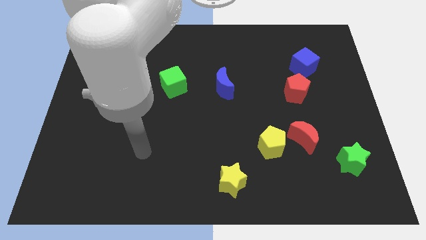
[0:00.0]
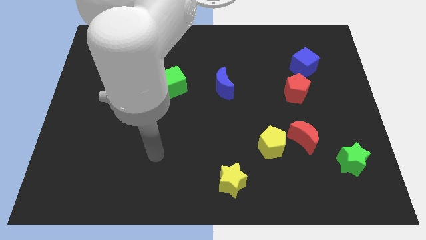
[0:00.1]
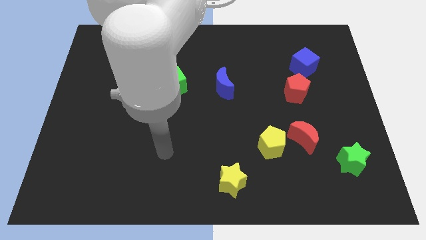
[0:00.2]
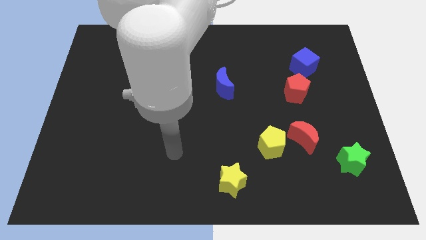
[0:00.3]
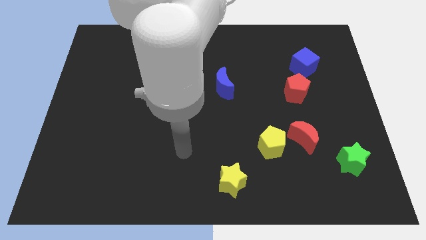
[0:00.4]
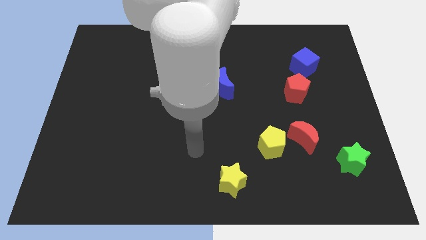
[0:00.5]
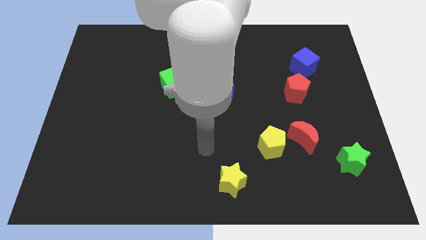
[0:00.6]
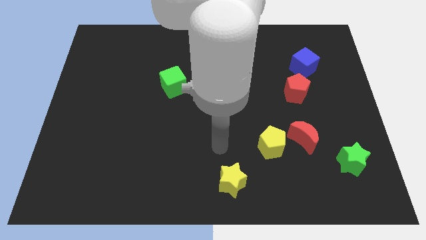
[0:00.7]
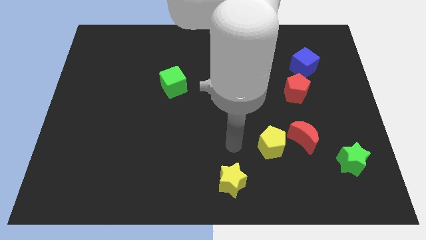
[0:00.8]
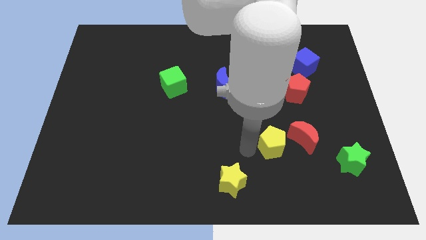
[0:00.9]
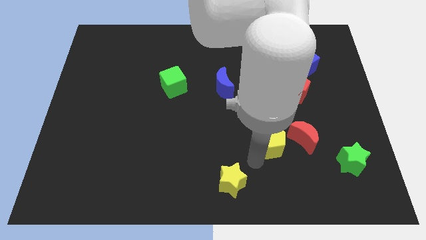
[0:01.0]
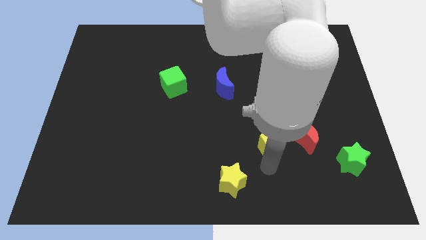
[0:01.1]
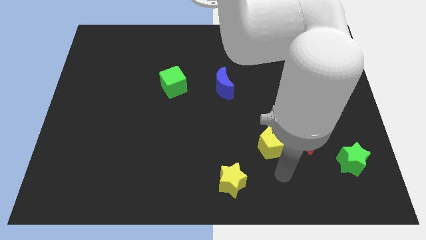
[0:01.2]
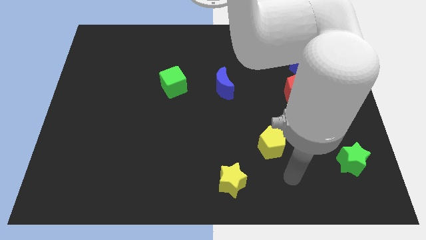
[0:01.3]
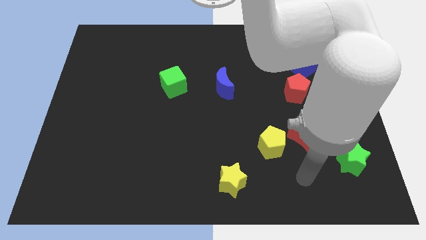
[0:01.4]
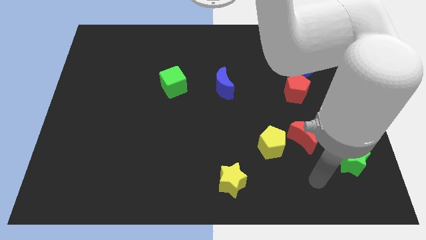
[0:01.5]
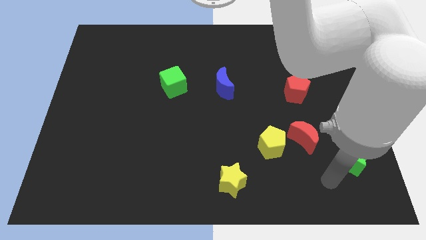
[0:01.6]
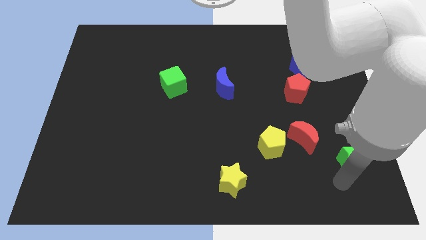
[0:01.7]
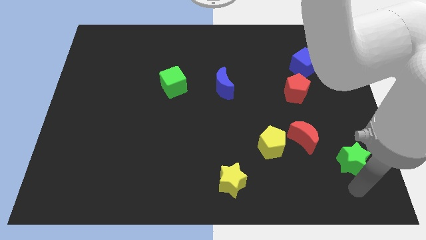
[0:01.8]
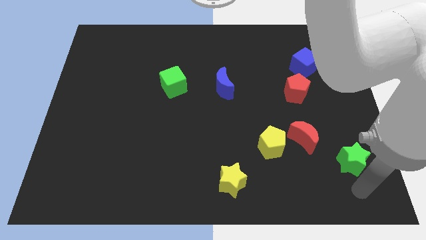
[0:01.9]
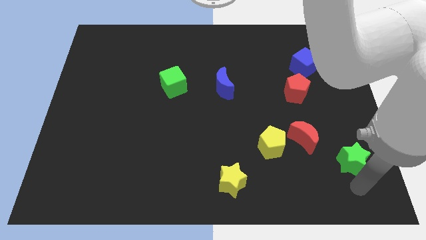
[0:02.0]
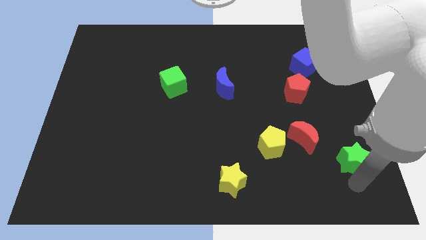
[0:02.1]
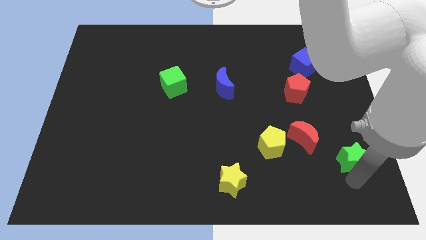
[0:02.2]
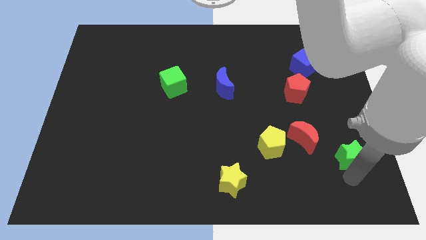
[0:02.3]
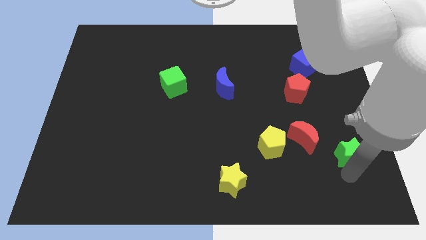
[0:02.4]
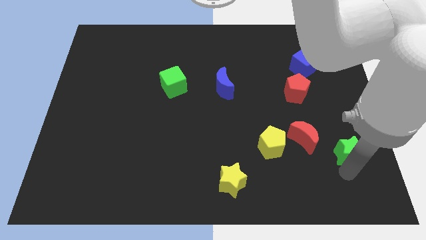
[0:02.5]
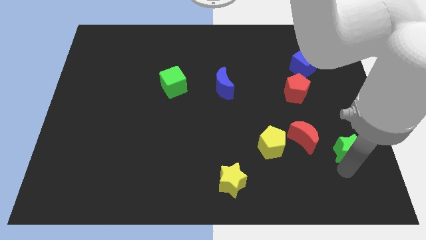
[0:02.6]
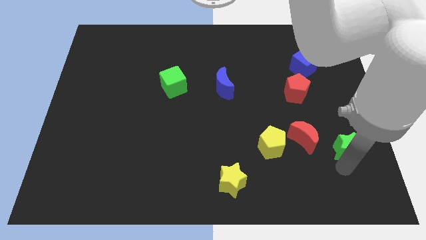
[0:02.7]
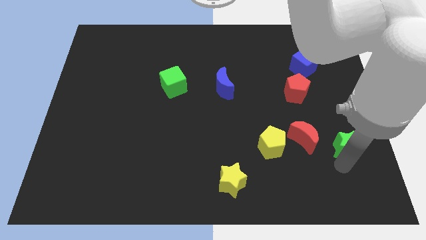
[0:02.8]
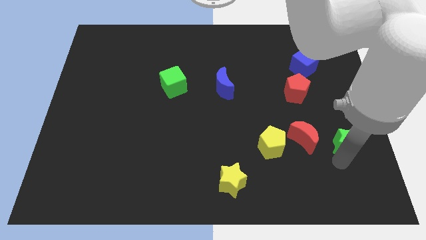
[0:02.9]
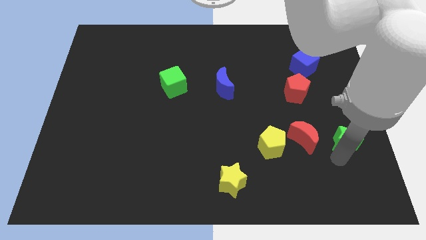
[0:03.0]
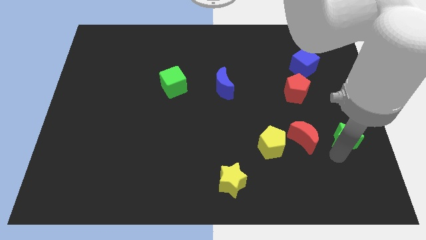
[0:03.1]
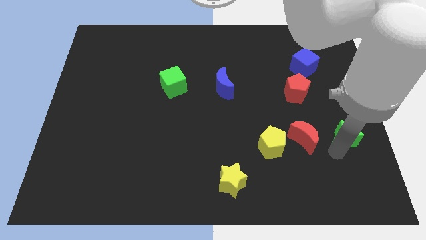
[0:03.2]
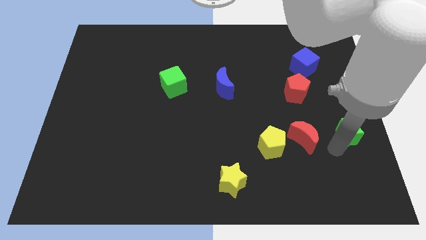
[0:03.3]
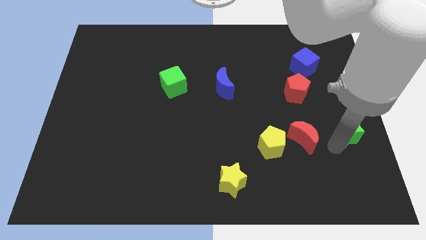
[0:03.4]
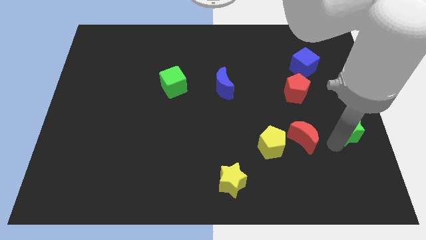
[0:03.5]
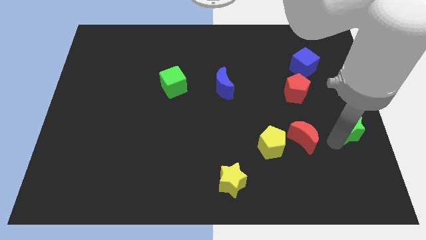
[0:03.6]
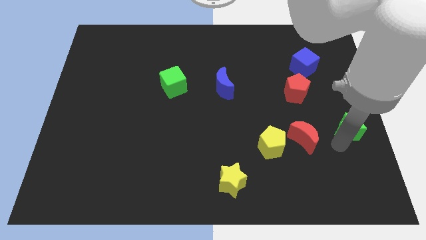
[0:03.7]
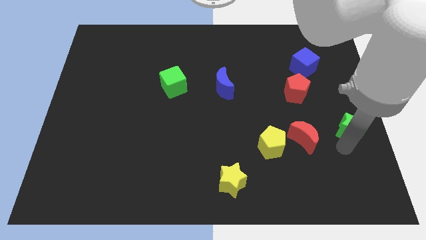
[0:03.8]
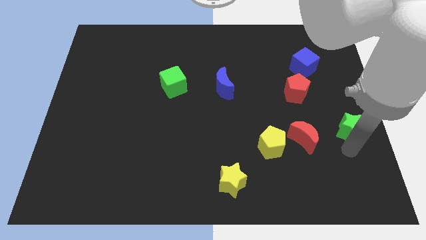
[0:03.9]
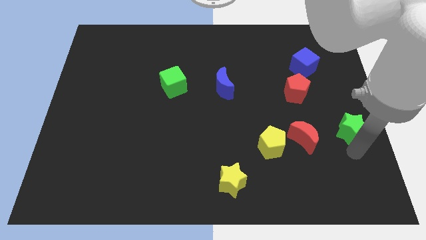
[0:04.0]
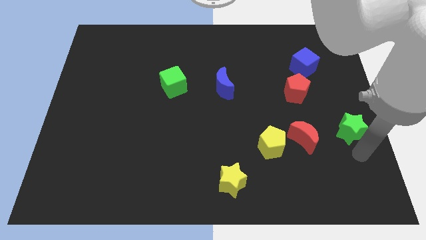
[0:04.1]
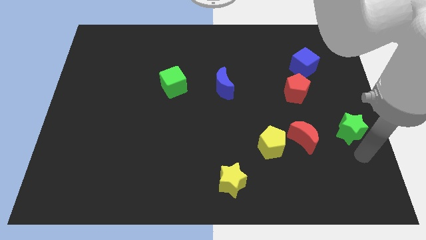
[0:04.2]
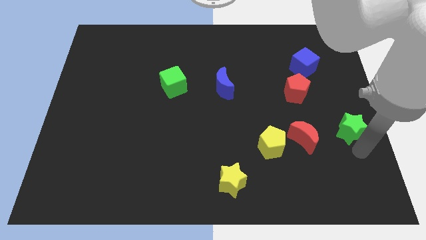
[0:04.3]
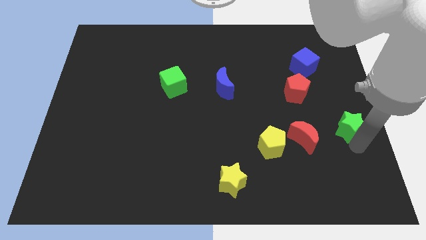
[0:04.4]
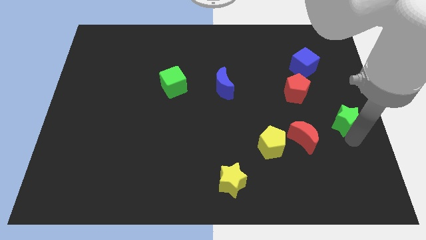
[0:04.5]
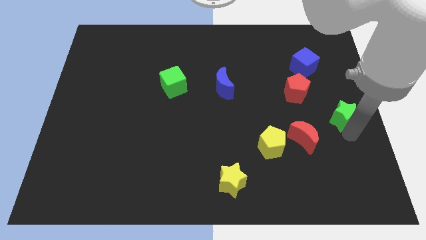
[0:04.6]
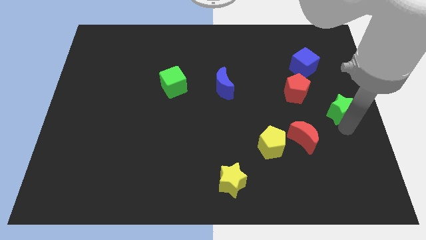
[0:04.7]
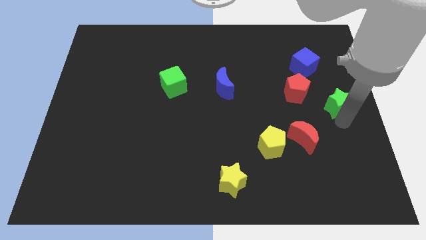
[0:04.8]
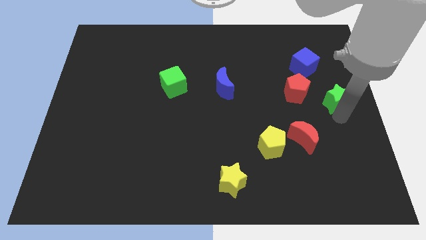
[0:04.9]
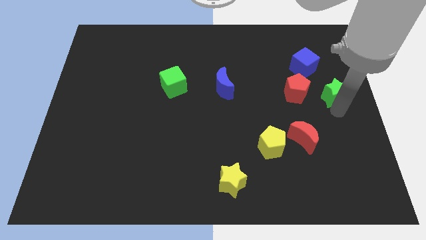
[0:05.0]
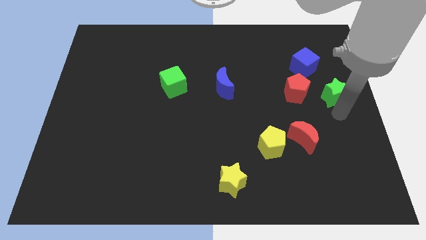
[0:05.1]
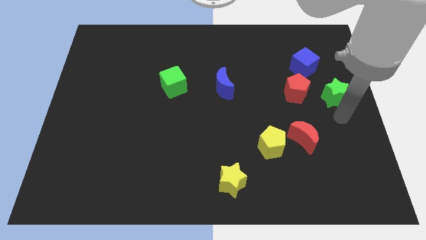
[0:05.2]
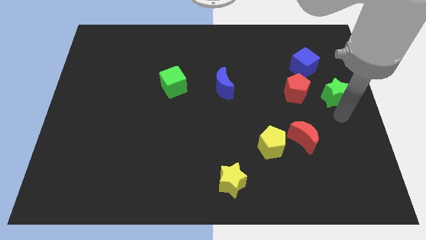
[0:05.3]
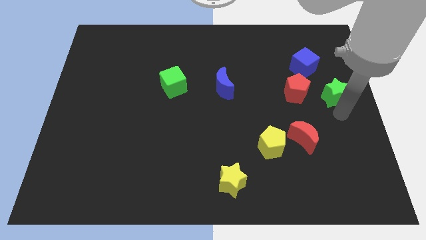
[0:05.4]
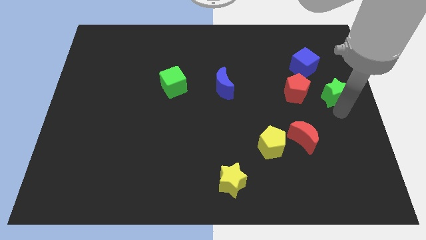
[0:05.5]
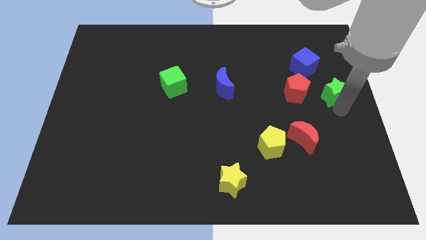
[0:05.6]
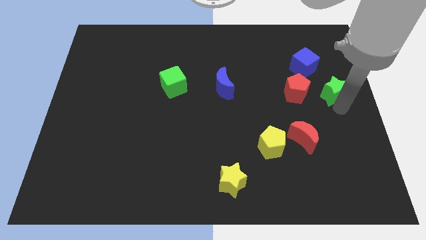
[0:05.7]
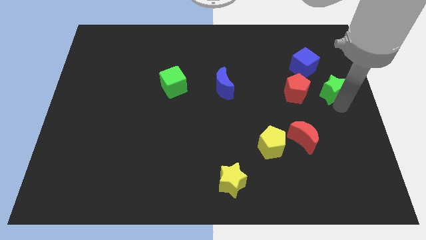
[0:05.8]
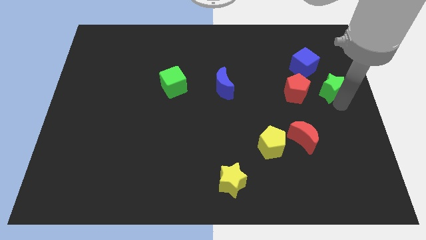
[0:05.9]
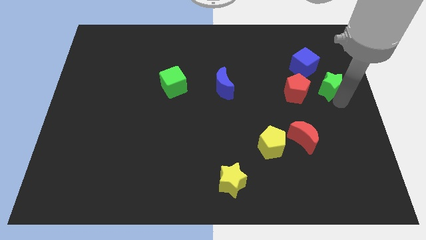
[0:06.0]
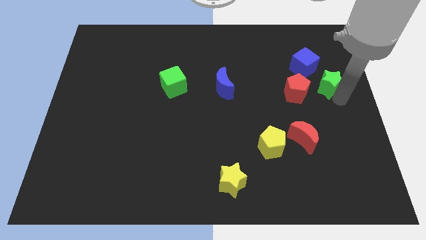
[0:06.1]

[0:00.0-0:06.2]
put the green star diagonally up and to the right of the red pentagon

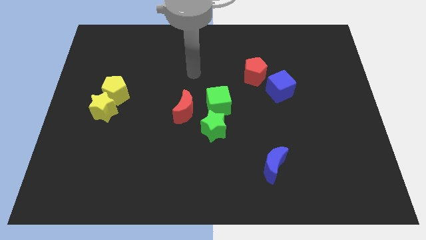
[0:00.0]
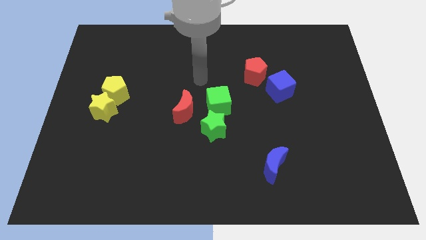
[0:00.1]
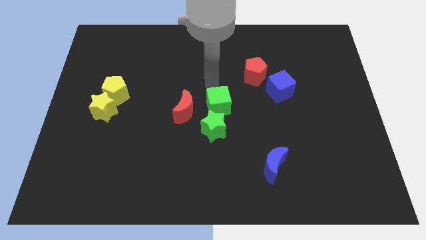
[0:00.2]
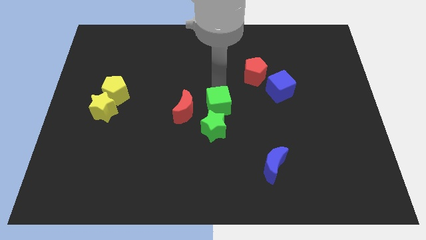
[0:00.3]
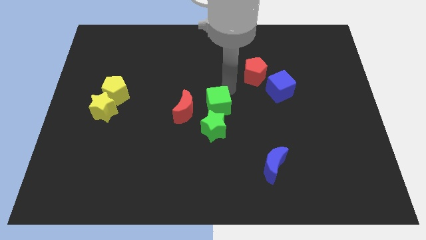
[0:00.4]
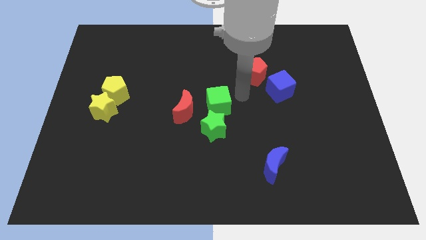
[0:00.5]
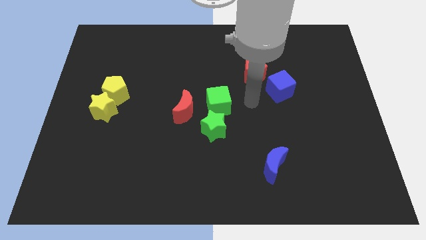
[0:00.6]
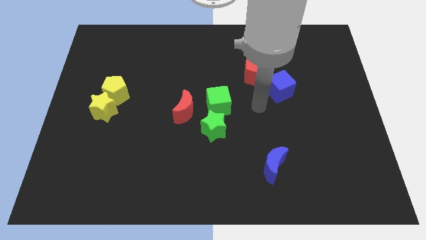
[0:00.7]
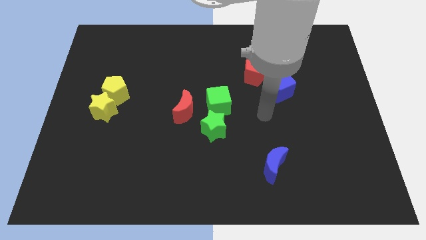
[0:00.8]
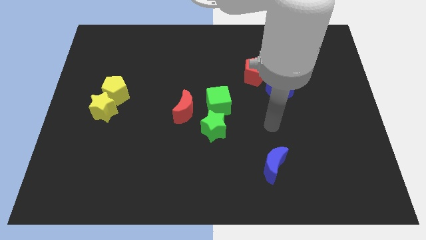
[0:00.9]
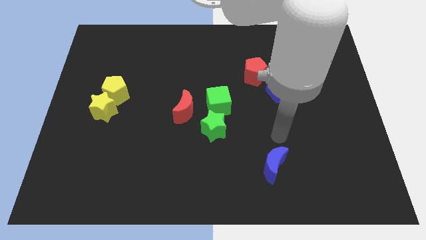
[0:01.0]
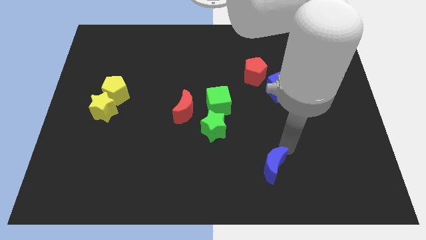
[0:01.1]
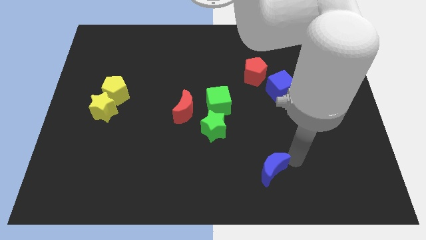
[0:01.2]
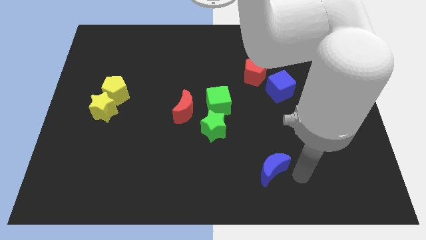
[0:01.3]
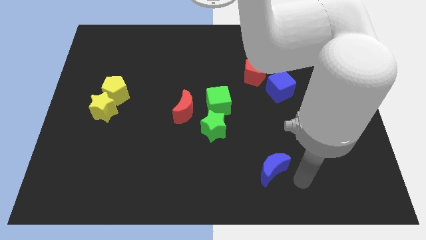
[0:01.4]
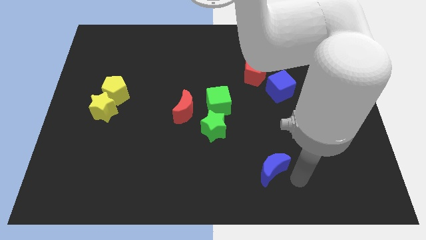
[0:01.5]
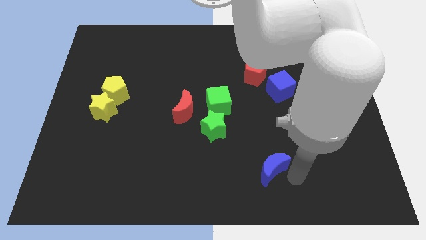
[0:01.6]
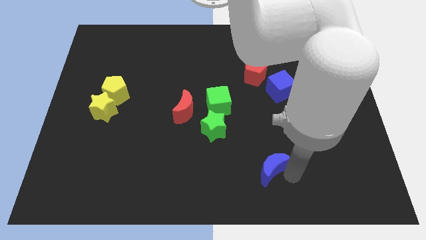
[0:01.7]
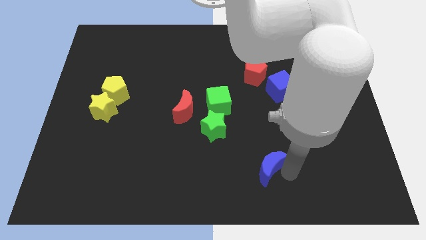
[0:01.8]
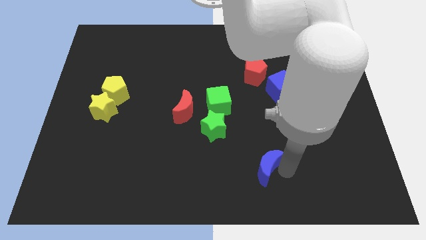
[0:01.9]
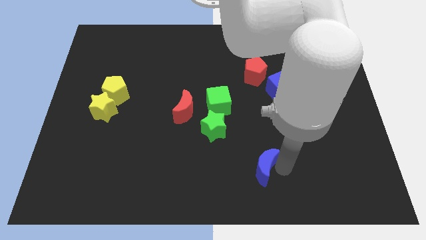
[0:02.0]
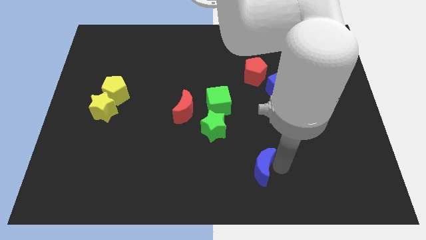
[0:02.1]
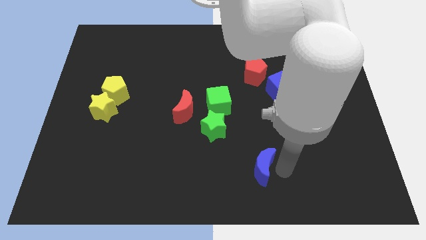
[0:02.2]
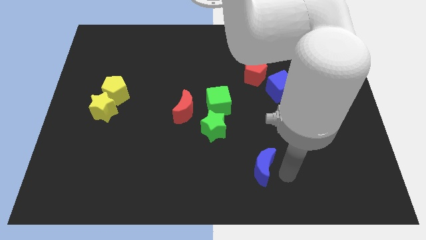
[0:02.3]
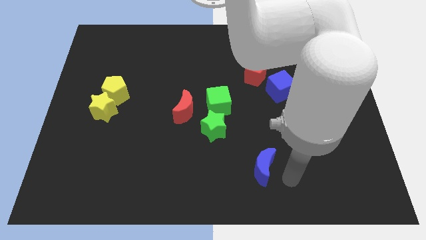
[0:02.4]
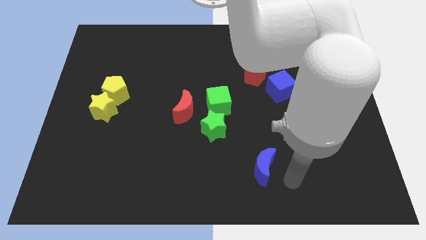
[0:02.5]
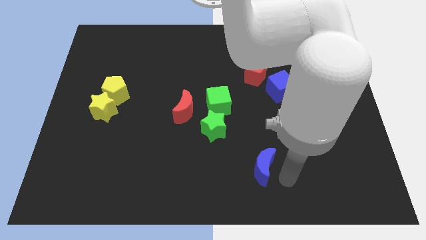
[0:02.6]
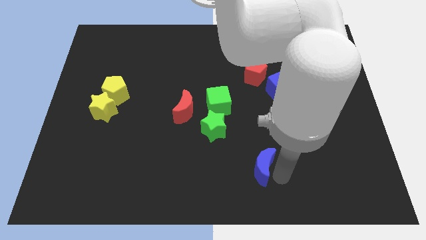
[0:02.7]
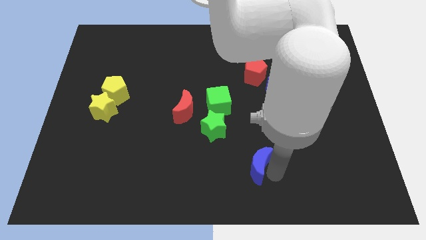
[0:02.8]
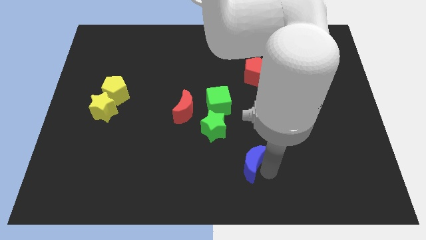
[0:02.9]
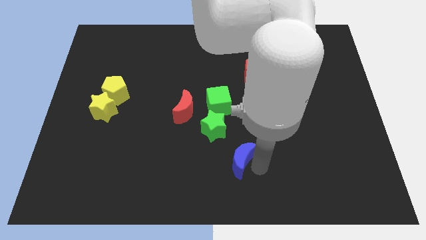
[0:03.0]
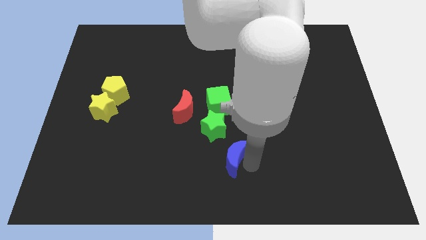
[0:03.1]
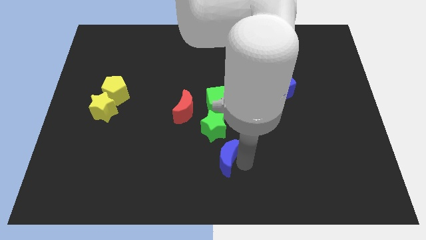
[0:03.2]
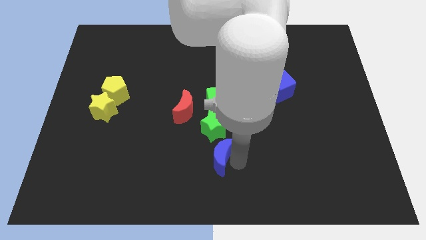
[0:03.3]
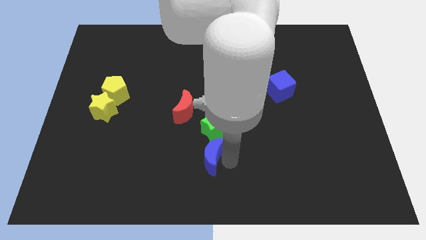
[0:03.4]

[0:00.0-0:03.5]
put the blue moon to the bottom left side of the green star
